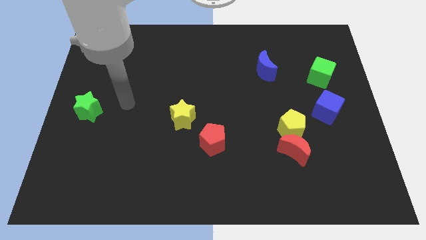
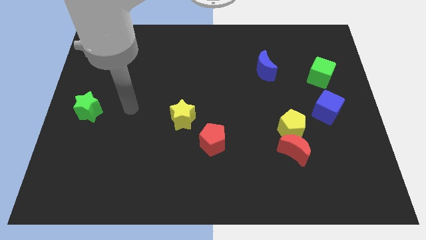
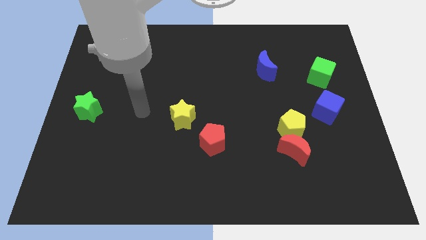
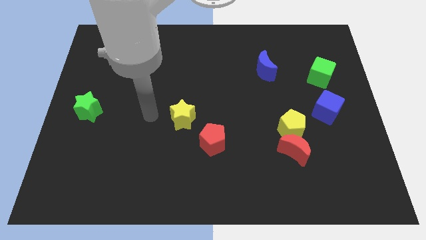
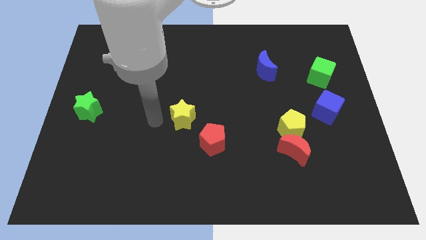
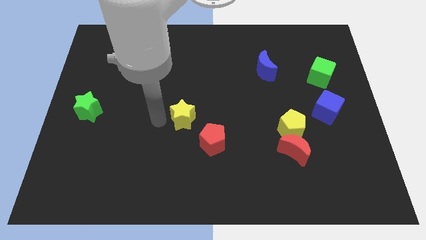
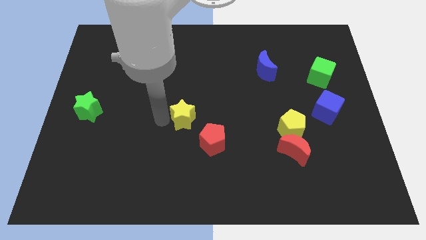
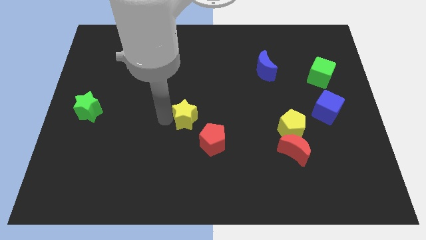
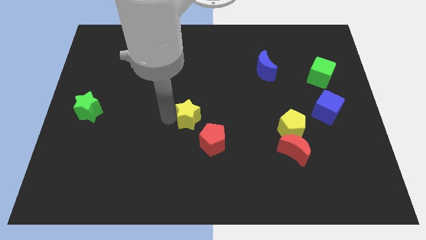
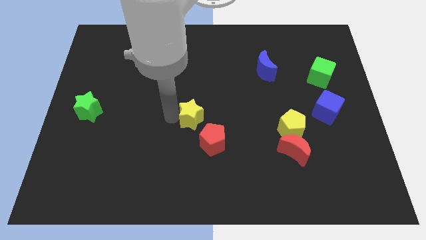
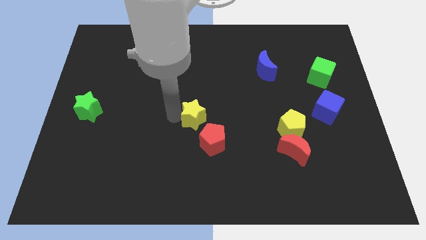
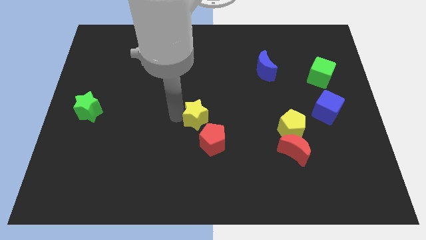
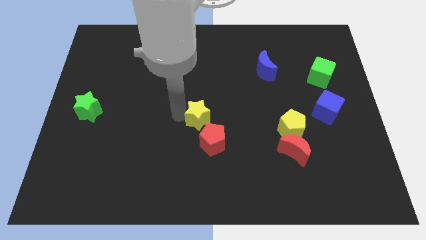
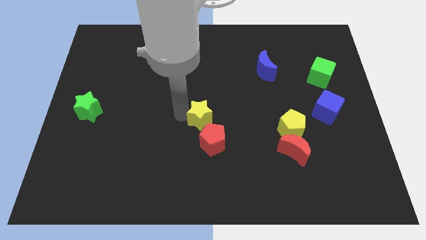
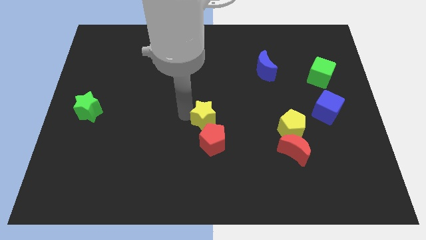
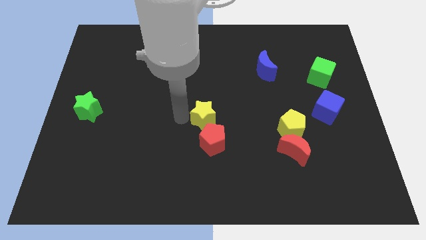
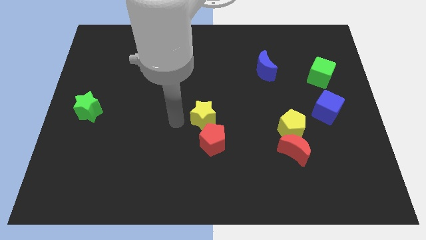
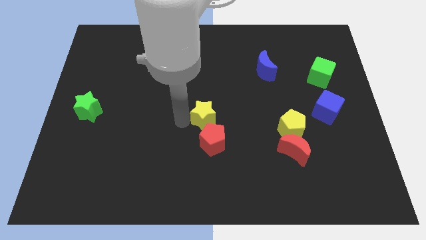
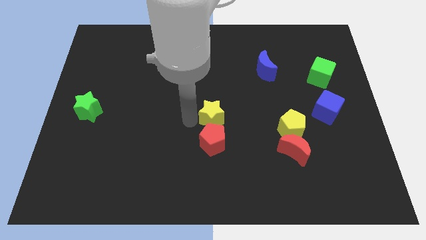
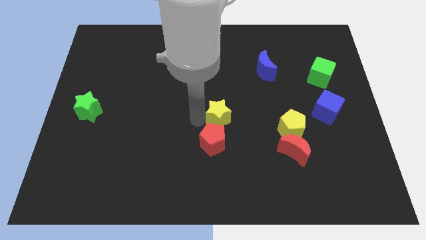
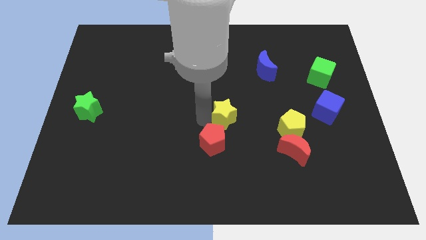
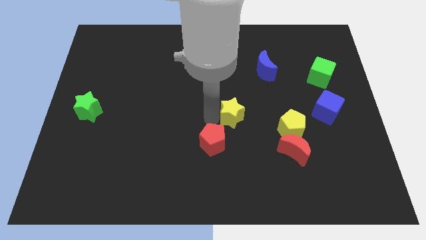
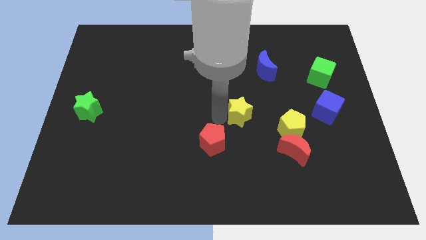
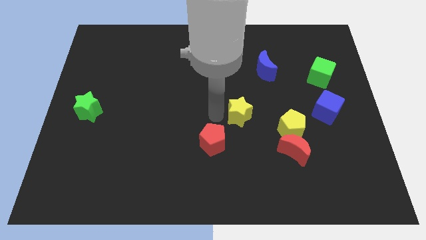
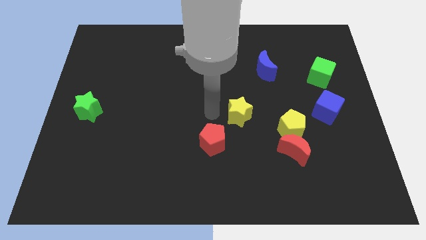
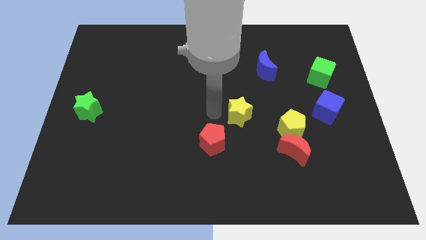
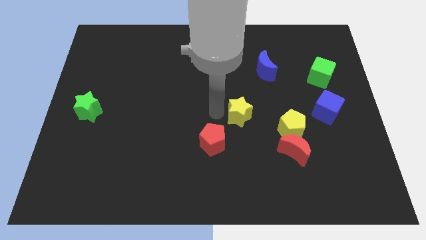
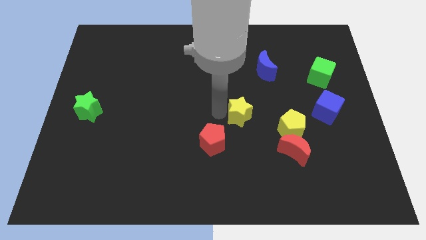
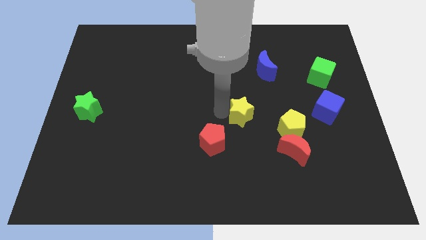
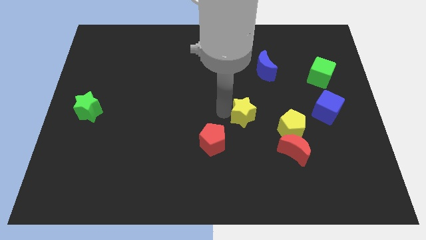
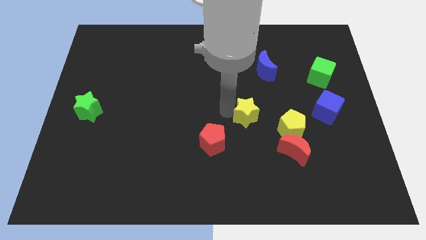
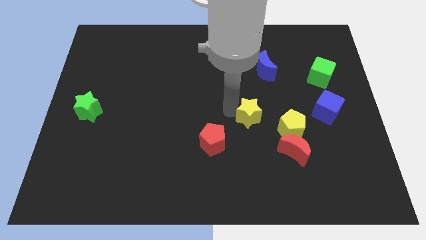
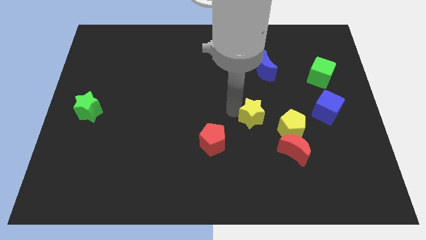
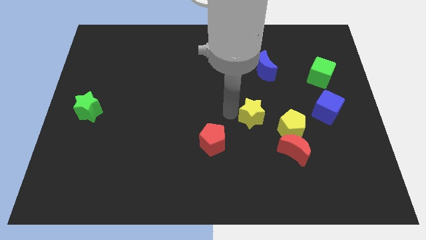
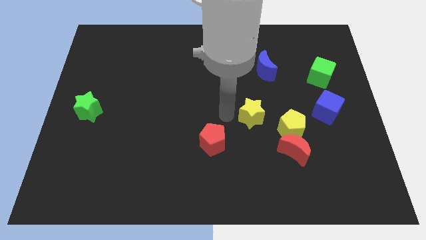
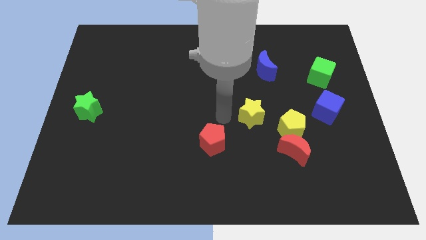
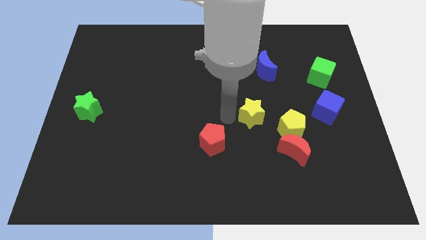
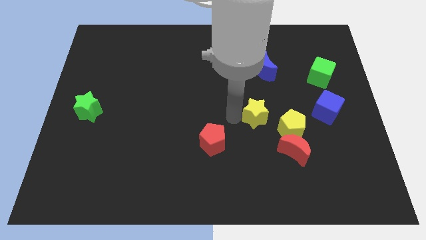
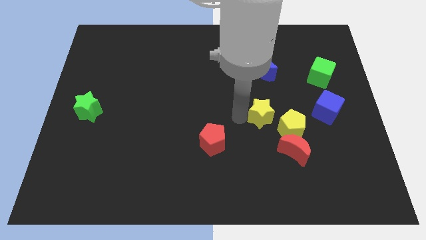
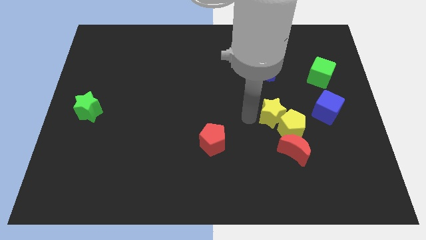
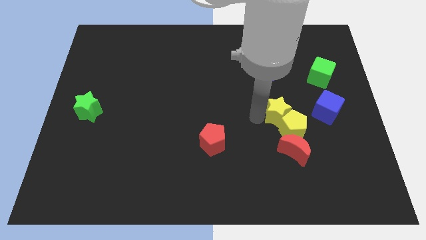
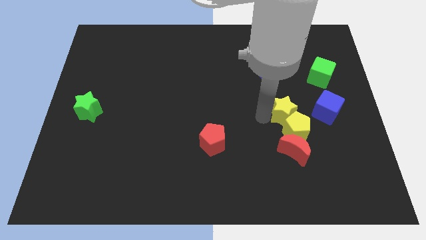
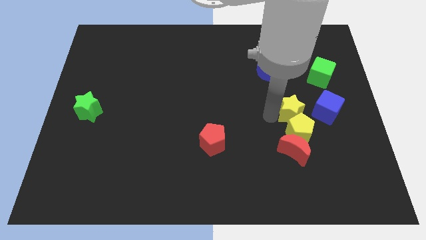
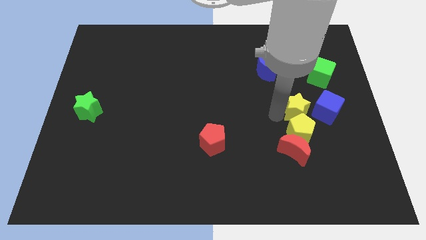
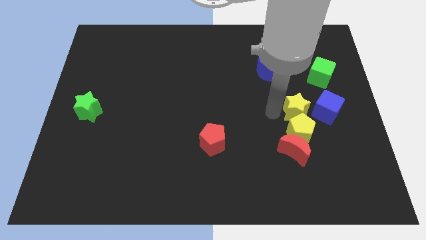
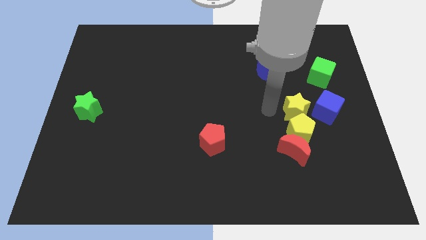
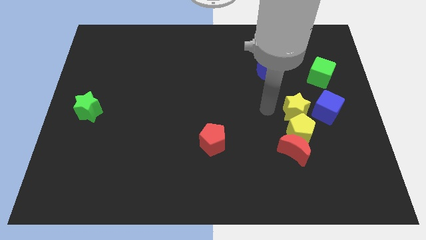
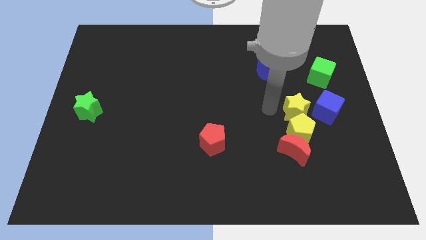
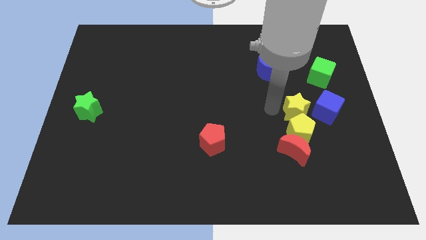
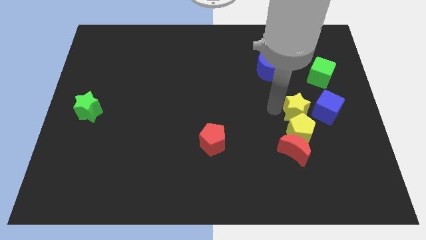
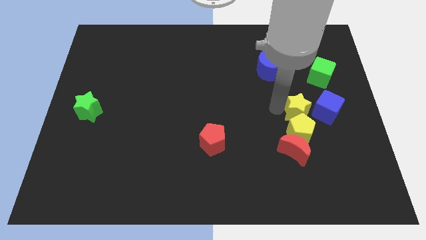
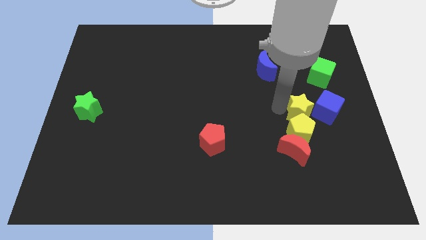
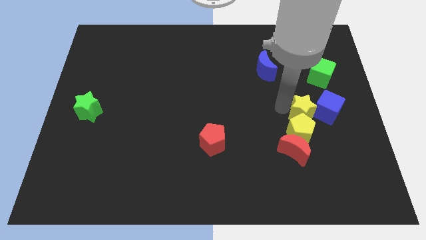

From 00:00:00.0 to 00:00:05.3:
slide the yellow star towards the blue cube

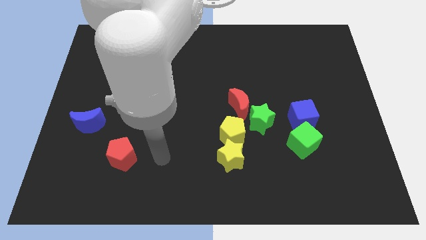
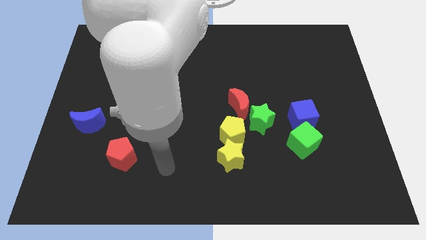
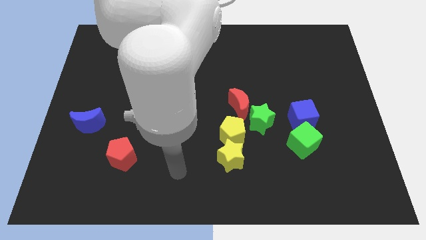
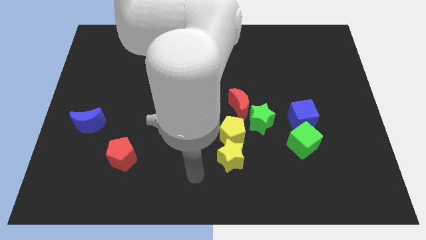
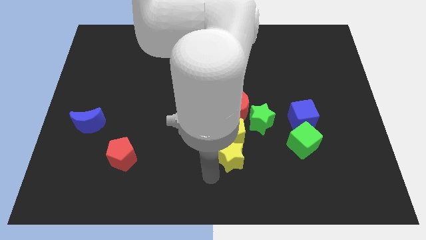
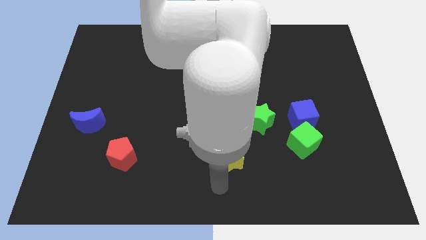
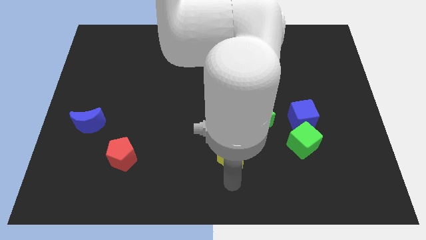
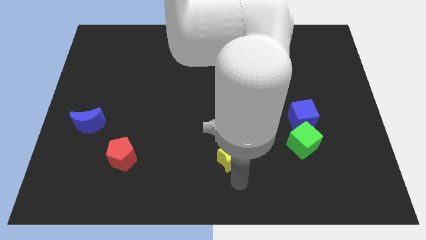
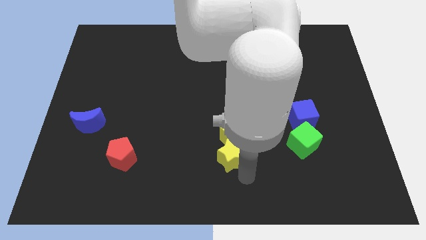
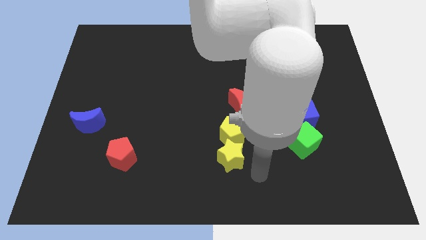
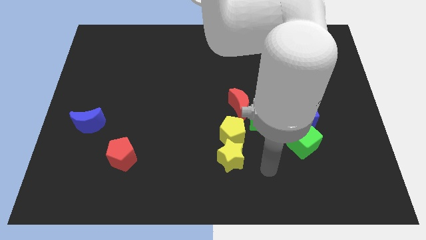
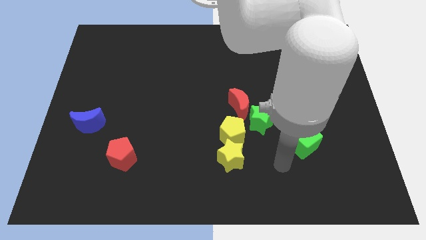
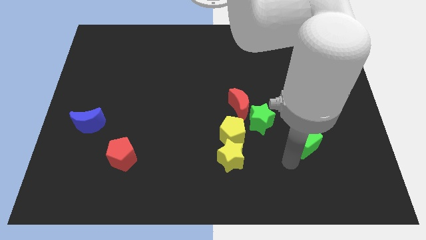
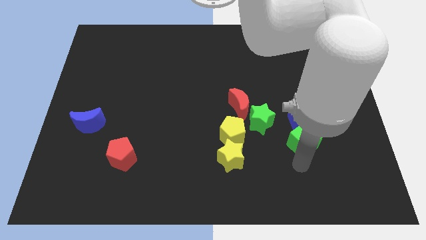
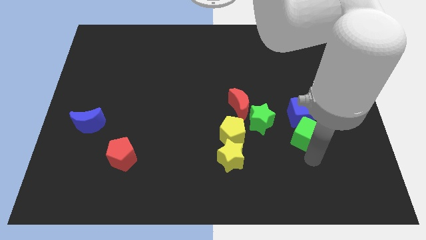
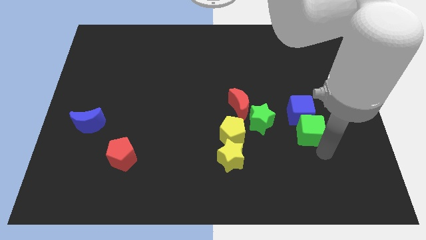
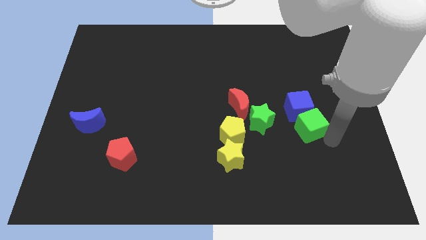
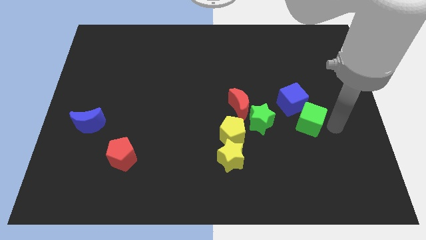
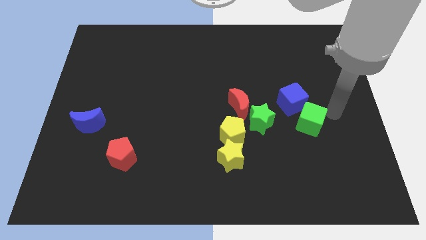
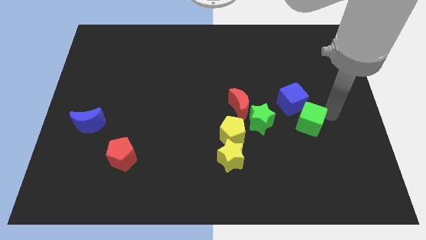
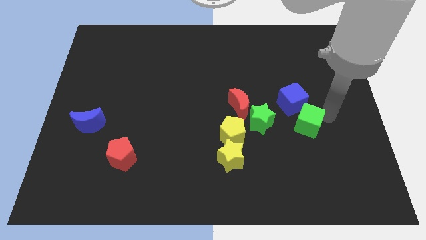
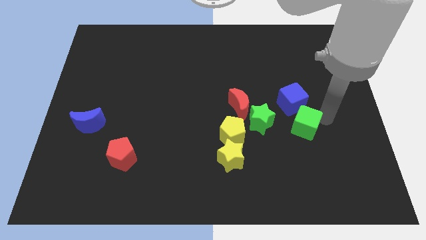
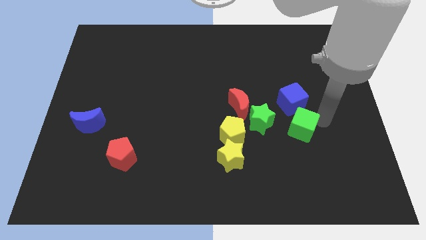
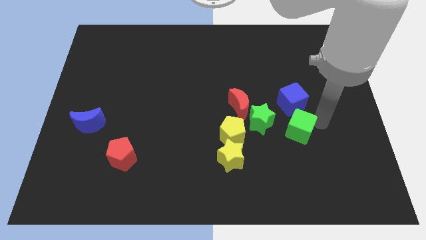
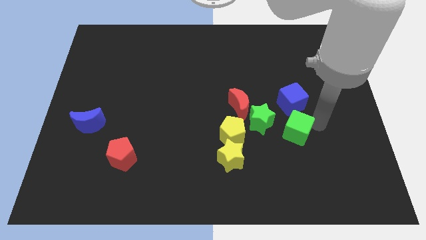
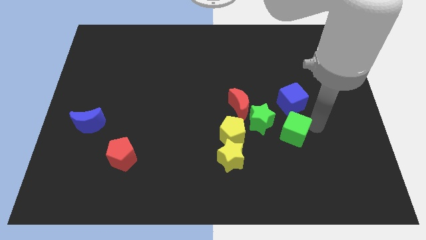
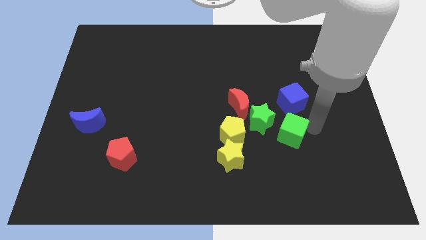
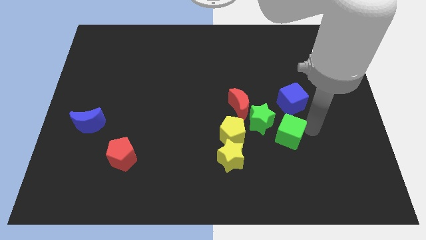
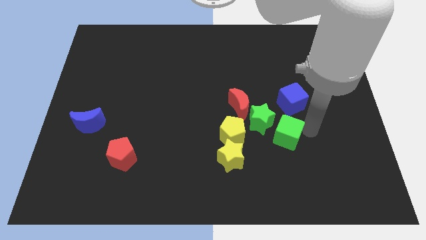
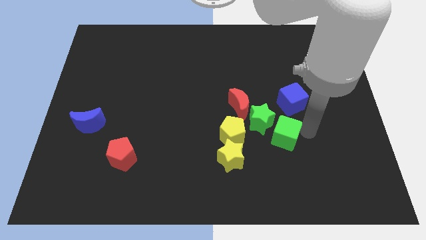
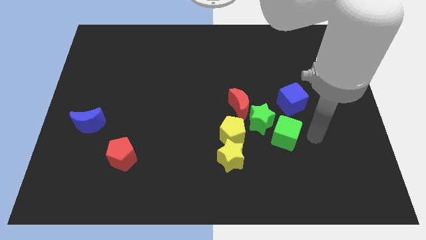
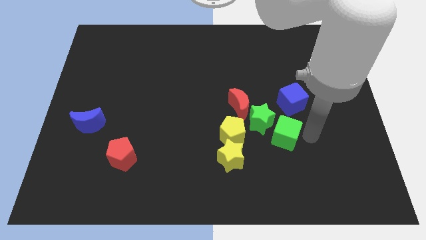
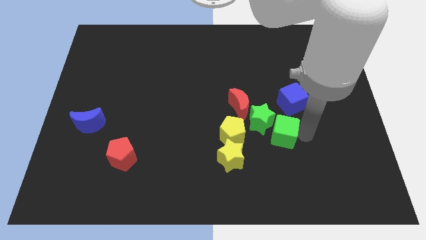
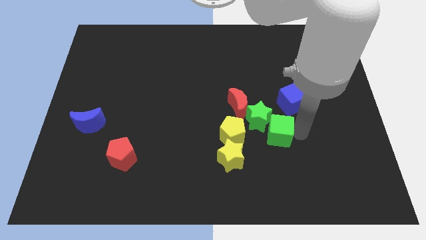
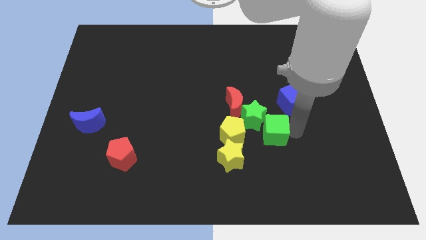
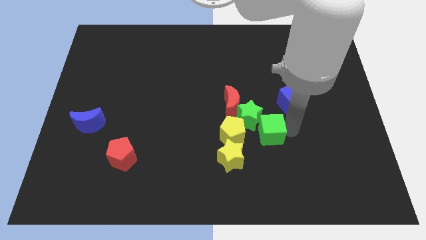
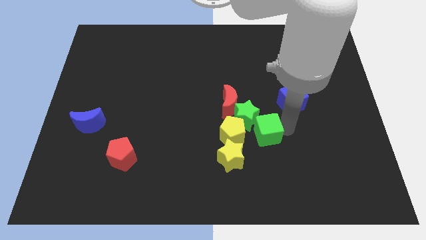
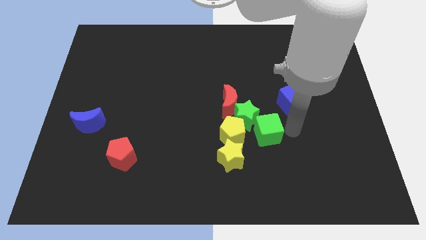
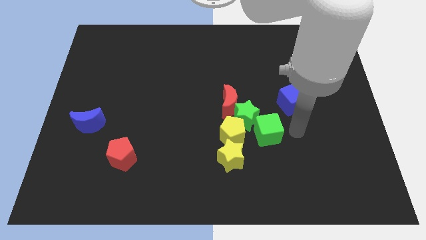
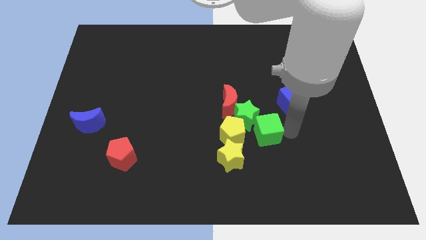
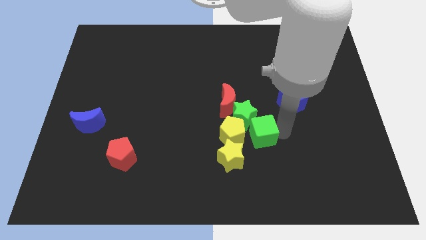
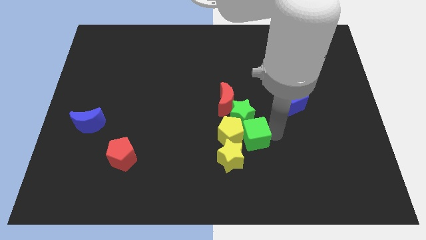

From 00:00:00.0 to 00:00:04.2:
slide the green cube next to the yellow pentagon
